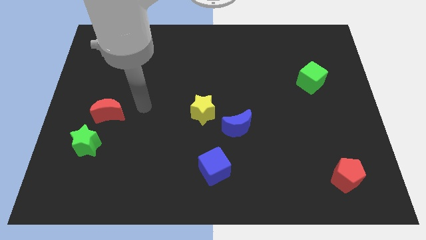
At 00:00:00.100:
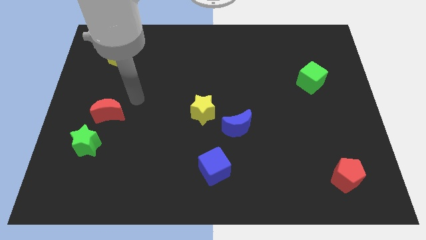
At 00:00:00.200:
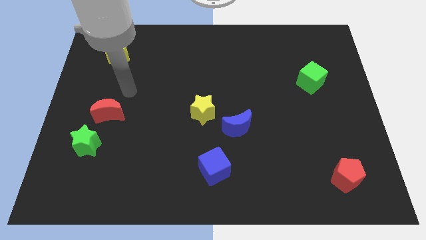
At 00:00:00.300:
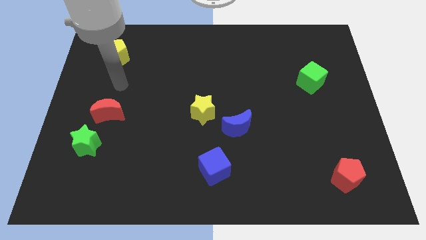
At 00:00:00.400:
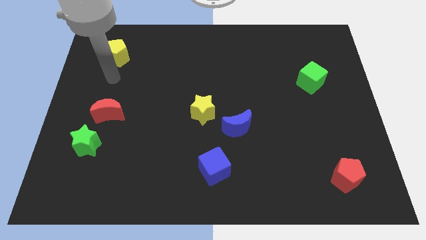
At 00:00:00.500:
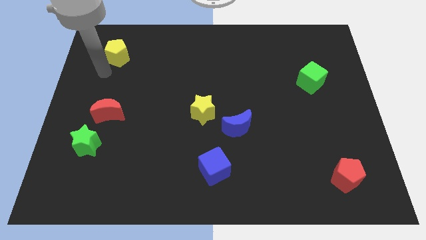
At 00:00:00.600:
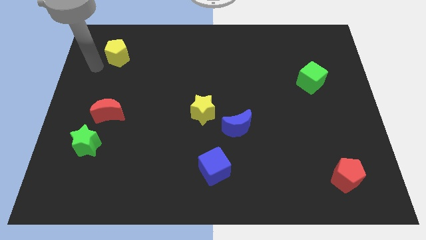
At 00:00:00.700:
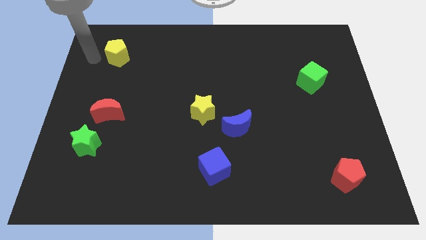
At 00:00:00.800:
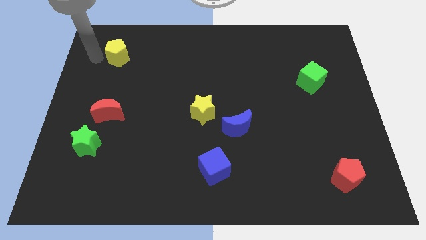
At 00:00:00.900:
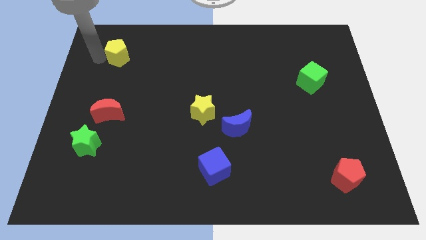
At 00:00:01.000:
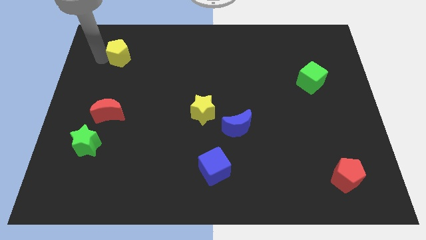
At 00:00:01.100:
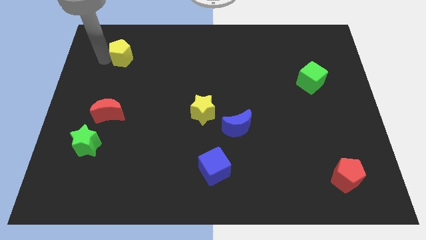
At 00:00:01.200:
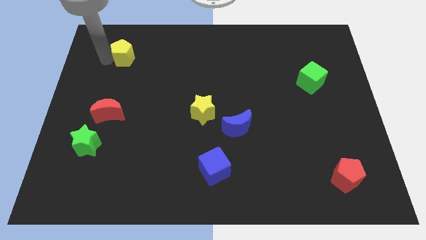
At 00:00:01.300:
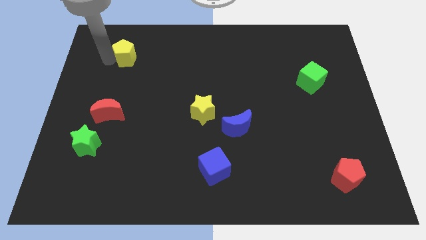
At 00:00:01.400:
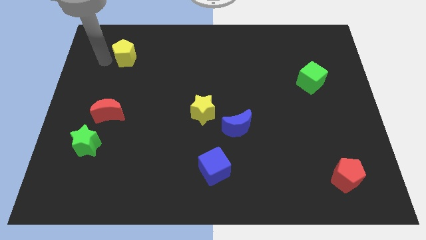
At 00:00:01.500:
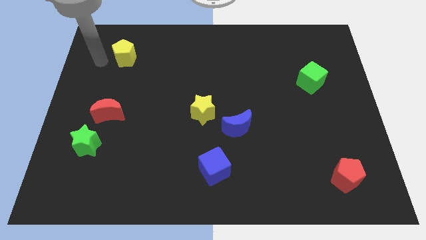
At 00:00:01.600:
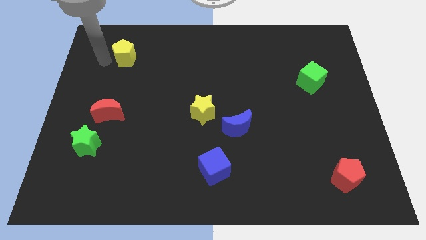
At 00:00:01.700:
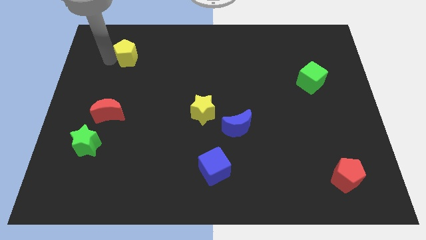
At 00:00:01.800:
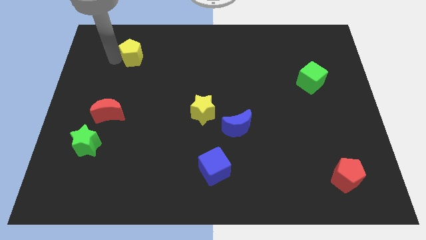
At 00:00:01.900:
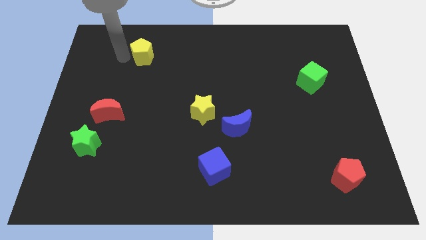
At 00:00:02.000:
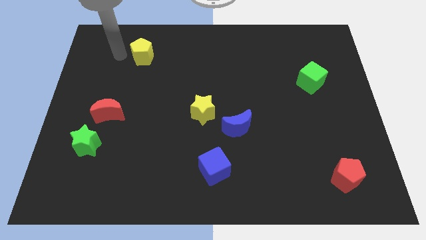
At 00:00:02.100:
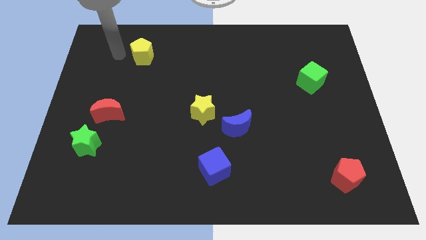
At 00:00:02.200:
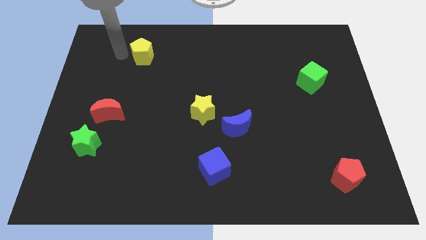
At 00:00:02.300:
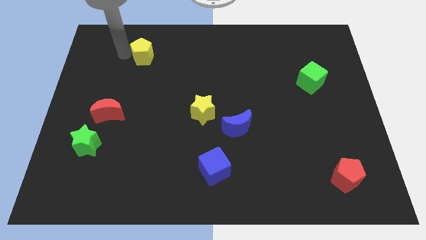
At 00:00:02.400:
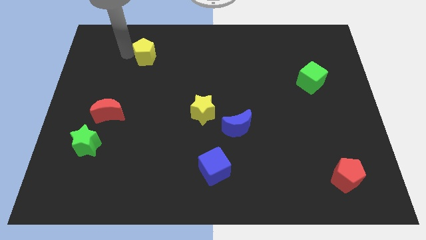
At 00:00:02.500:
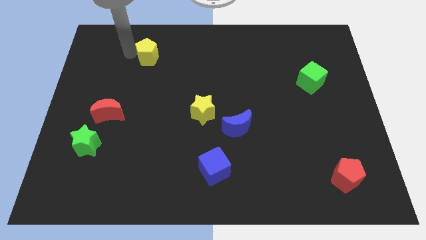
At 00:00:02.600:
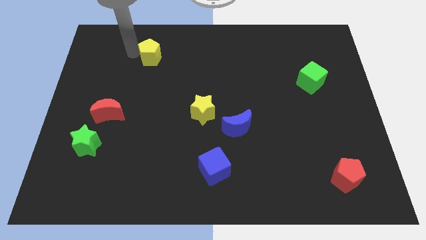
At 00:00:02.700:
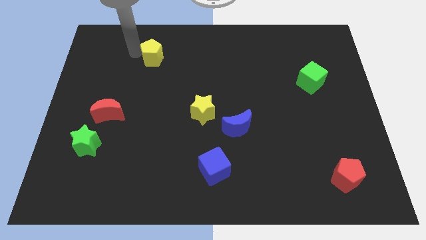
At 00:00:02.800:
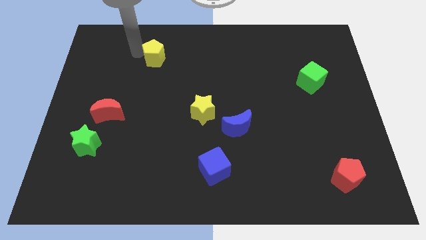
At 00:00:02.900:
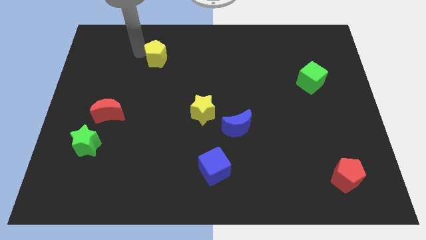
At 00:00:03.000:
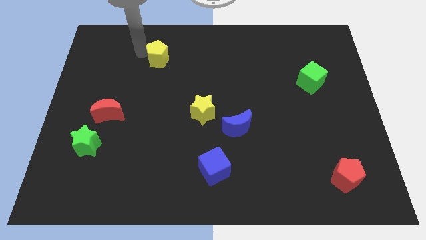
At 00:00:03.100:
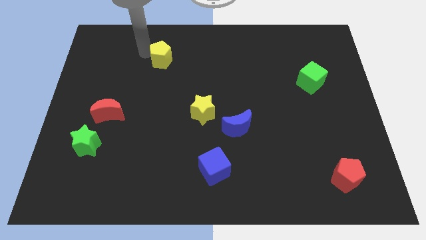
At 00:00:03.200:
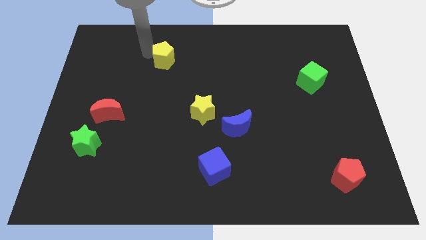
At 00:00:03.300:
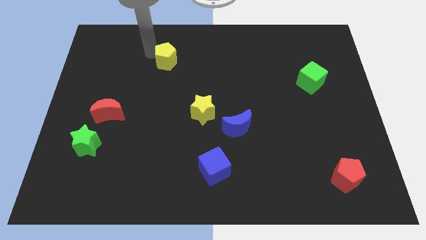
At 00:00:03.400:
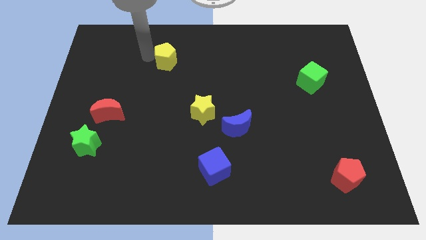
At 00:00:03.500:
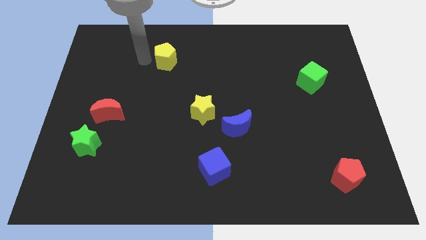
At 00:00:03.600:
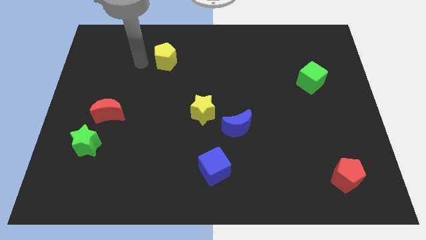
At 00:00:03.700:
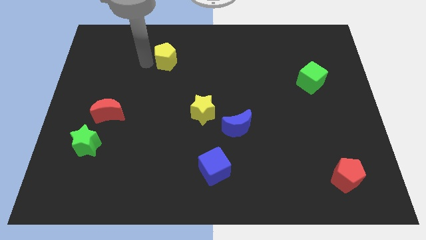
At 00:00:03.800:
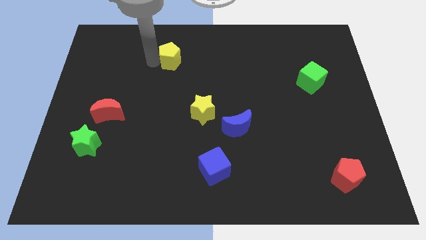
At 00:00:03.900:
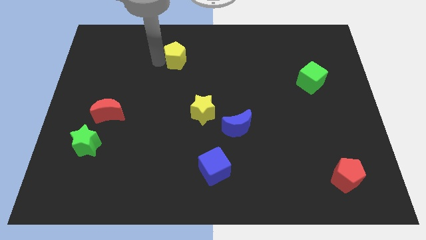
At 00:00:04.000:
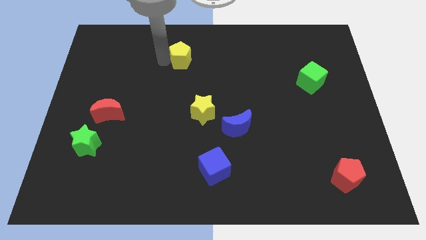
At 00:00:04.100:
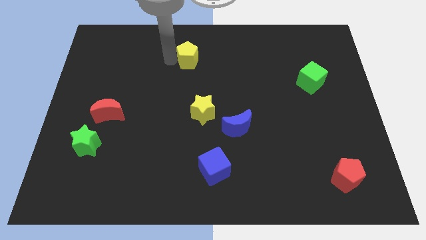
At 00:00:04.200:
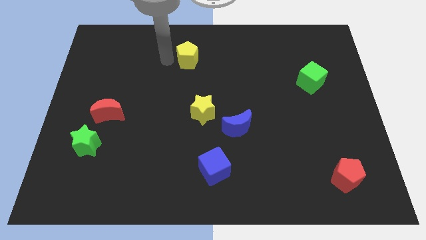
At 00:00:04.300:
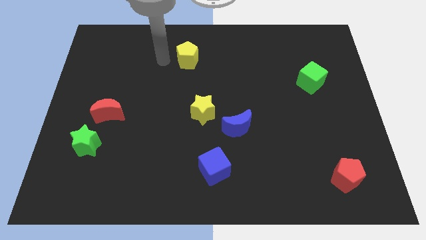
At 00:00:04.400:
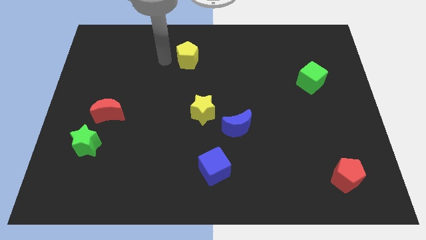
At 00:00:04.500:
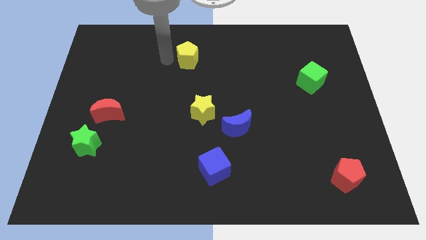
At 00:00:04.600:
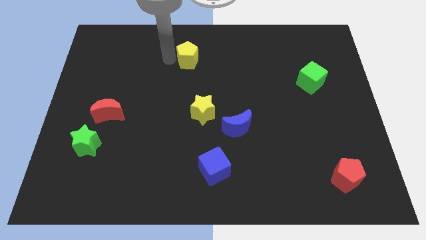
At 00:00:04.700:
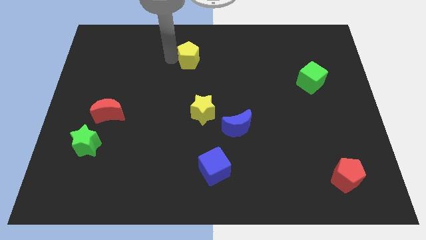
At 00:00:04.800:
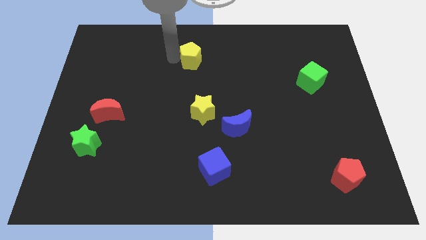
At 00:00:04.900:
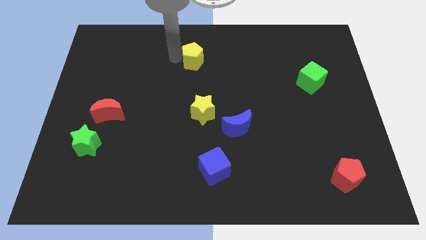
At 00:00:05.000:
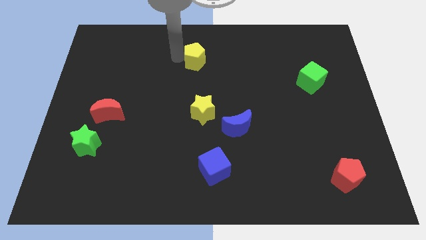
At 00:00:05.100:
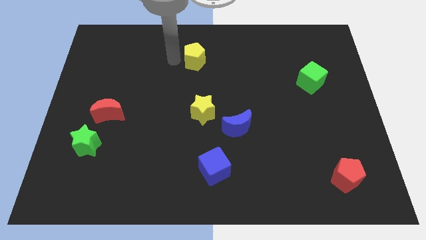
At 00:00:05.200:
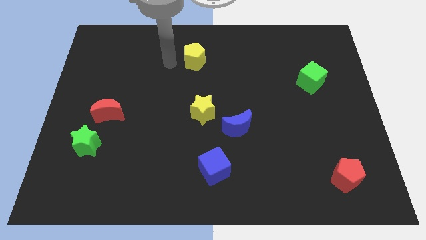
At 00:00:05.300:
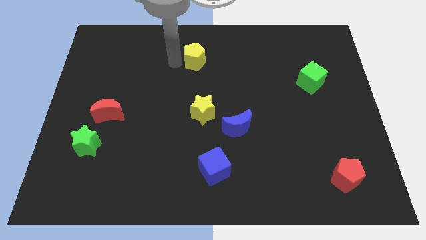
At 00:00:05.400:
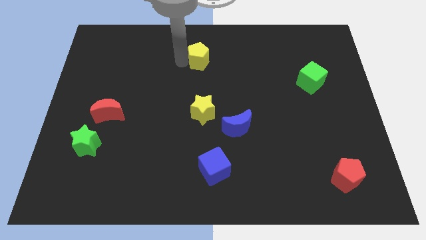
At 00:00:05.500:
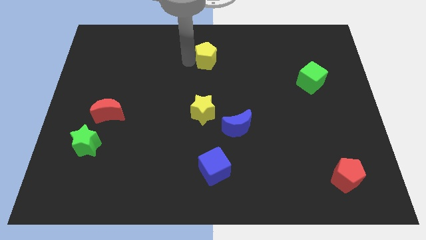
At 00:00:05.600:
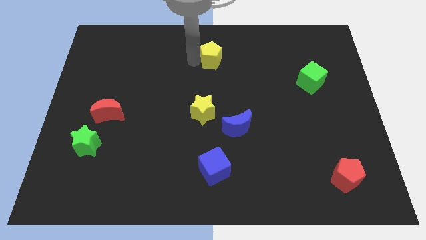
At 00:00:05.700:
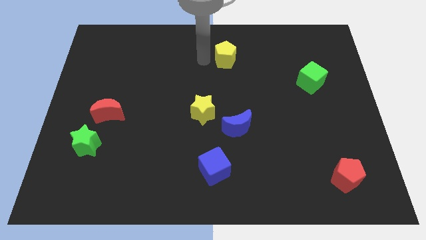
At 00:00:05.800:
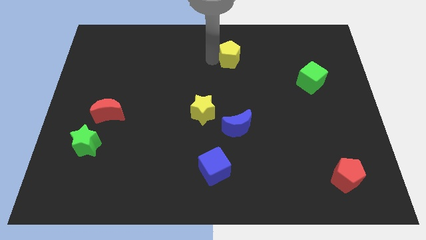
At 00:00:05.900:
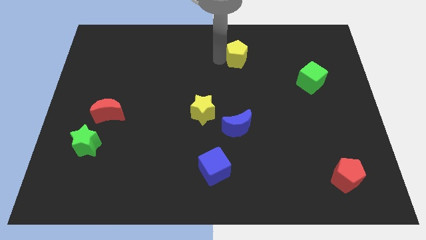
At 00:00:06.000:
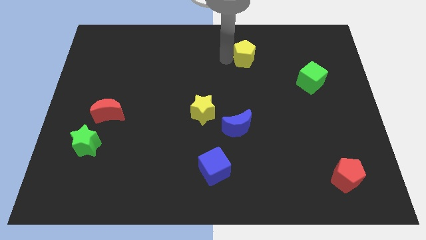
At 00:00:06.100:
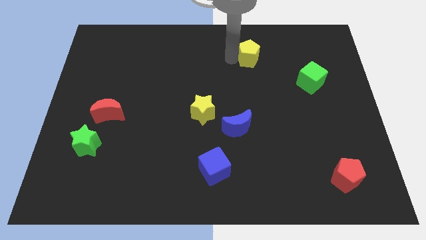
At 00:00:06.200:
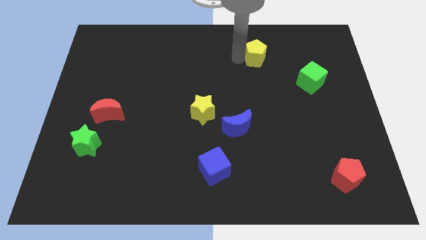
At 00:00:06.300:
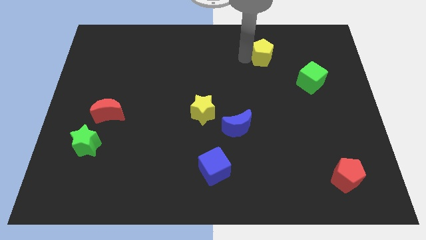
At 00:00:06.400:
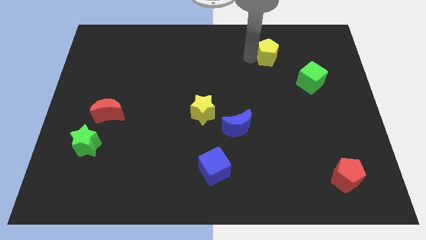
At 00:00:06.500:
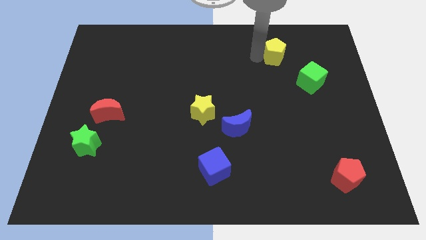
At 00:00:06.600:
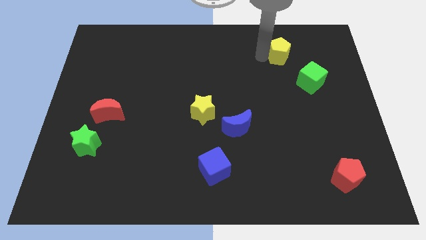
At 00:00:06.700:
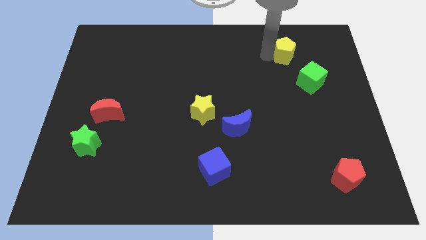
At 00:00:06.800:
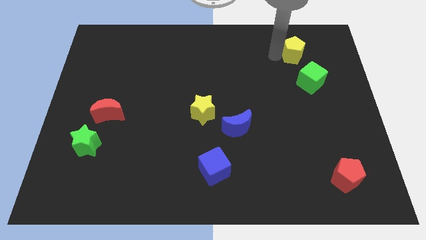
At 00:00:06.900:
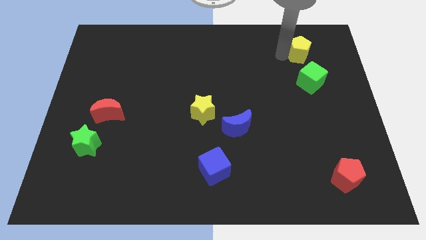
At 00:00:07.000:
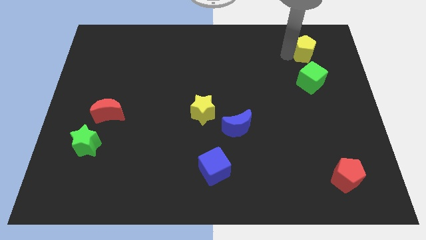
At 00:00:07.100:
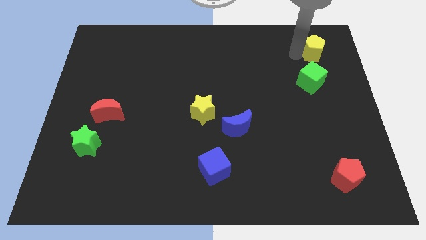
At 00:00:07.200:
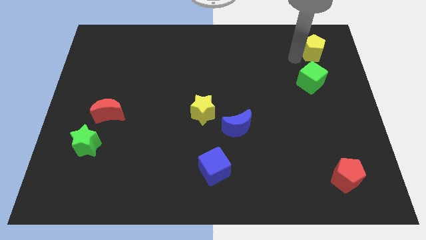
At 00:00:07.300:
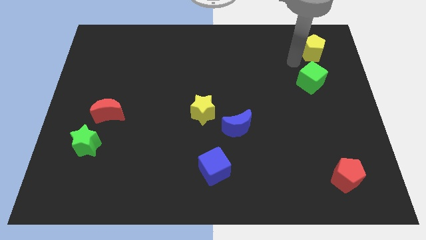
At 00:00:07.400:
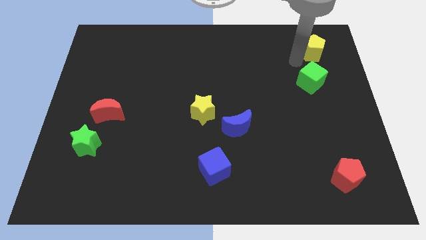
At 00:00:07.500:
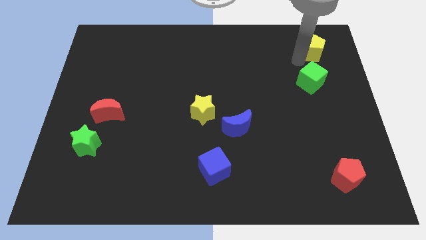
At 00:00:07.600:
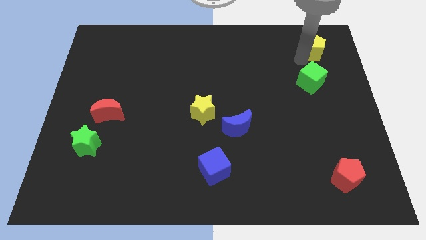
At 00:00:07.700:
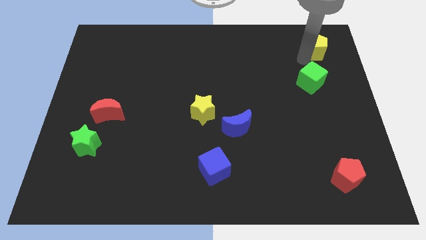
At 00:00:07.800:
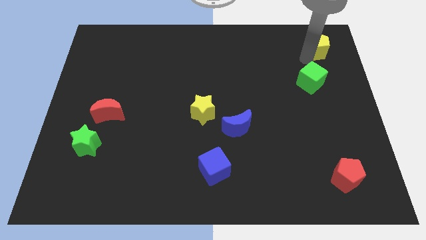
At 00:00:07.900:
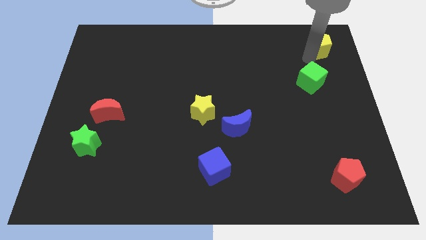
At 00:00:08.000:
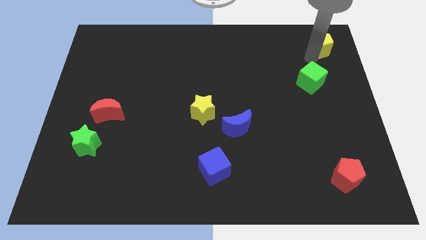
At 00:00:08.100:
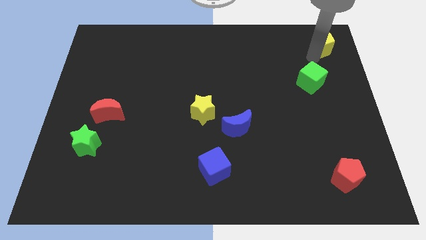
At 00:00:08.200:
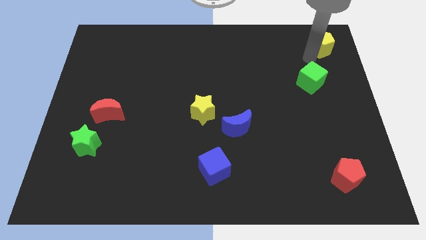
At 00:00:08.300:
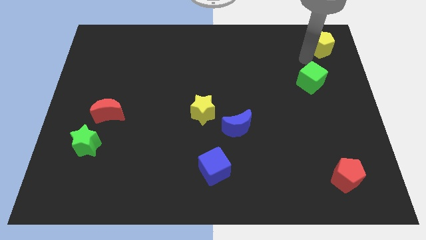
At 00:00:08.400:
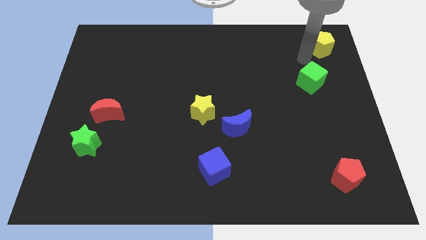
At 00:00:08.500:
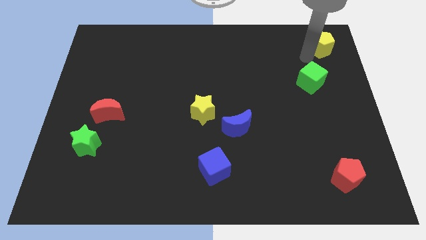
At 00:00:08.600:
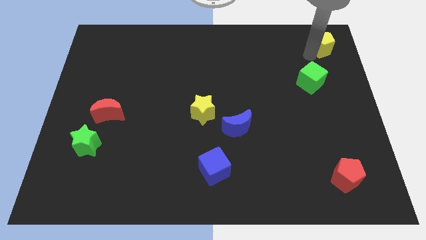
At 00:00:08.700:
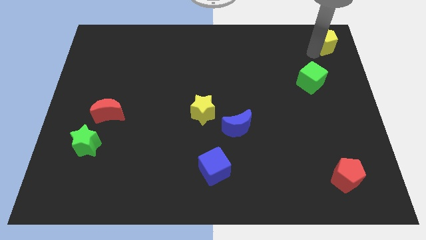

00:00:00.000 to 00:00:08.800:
slide the yellow pentagon to the top right of the board
